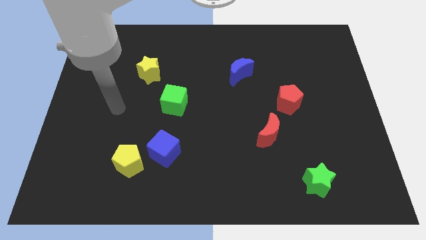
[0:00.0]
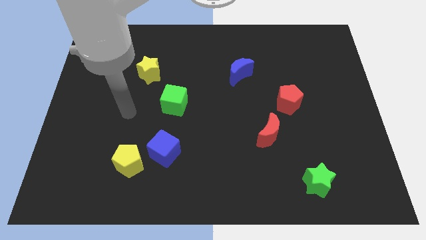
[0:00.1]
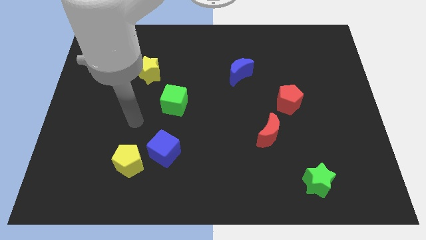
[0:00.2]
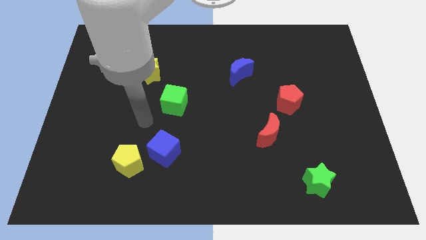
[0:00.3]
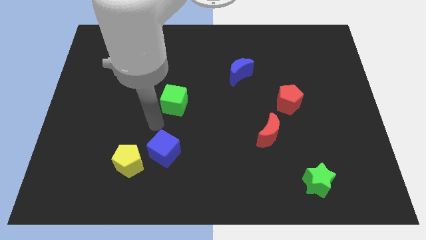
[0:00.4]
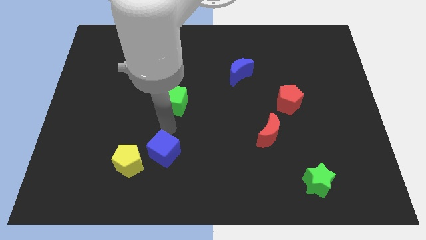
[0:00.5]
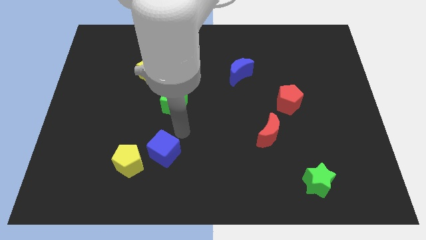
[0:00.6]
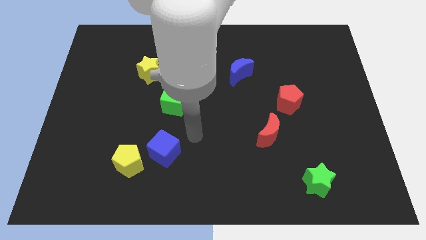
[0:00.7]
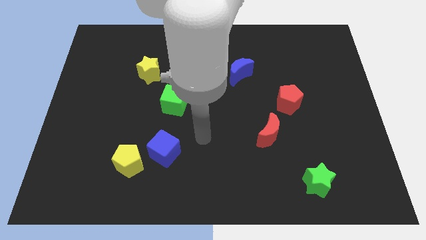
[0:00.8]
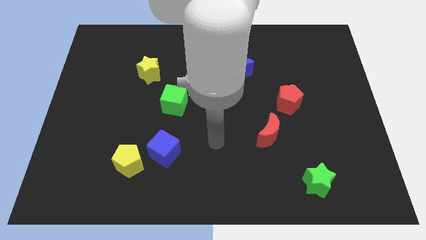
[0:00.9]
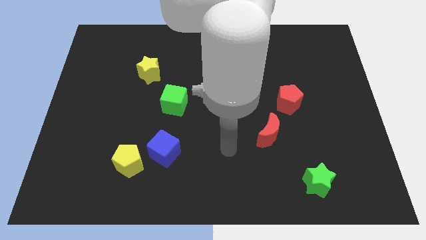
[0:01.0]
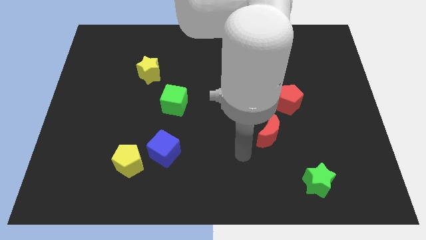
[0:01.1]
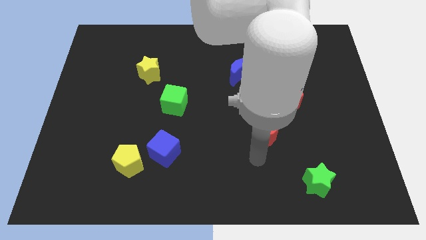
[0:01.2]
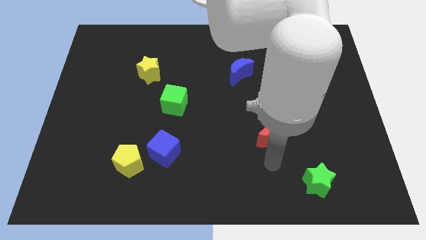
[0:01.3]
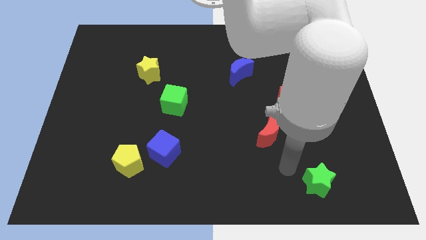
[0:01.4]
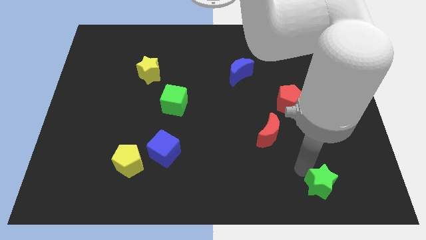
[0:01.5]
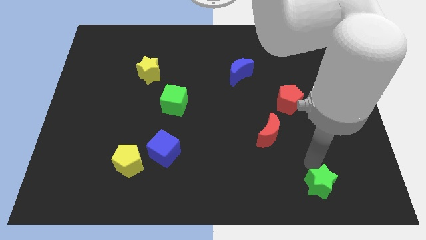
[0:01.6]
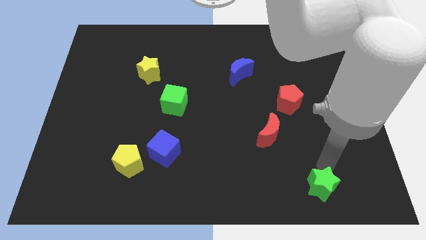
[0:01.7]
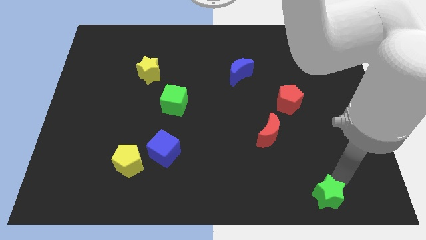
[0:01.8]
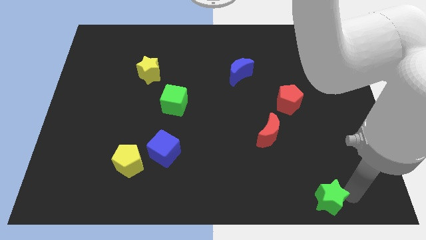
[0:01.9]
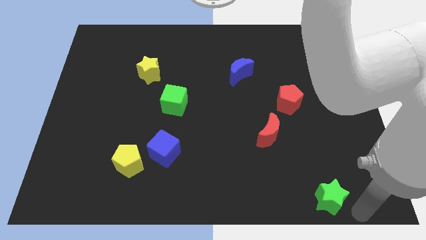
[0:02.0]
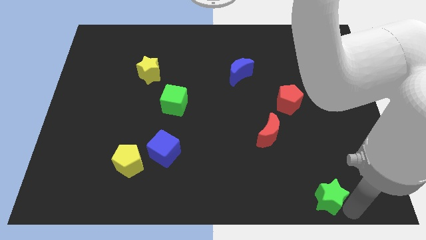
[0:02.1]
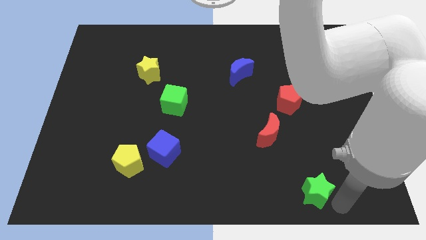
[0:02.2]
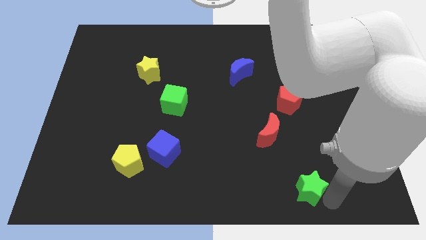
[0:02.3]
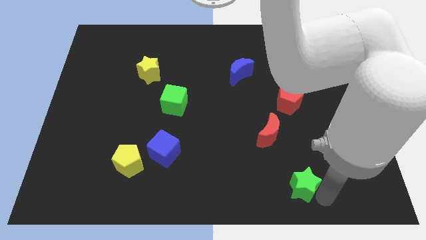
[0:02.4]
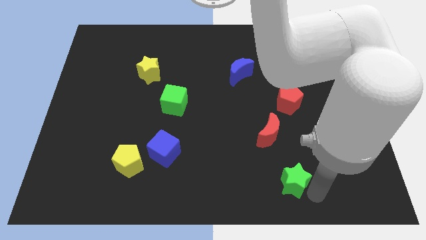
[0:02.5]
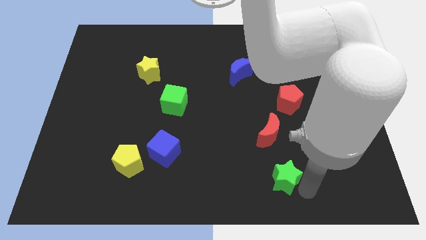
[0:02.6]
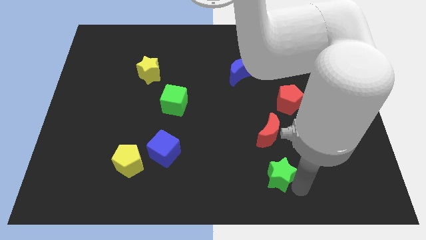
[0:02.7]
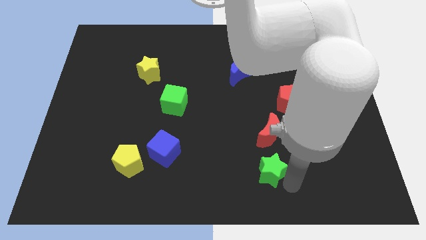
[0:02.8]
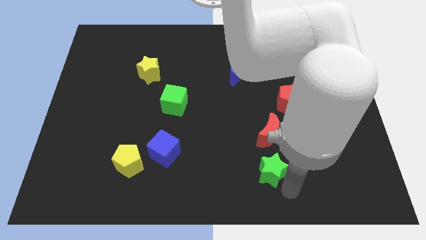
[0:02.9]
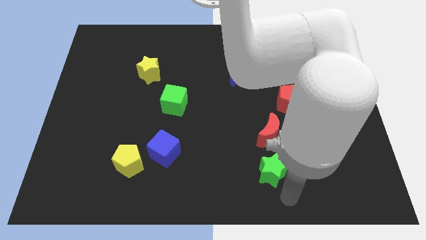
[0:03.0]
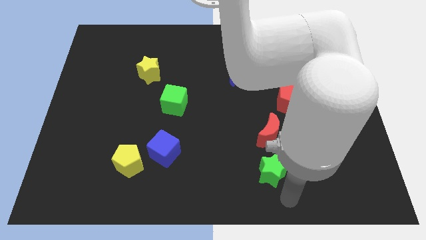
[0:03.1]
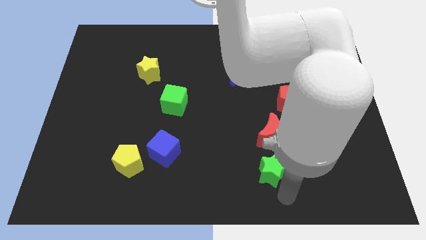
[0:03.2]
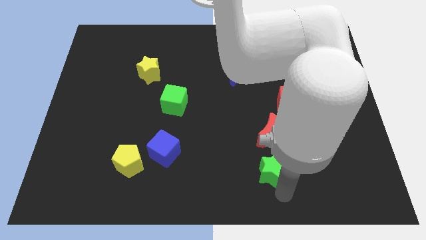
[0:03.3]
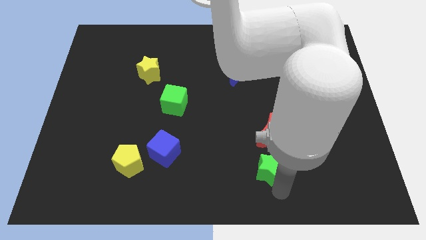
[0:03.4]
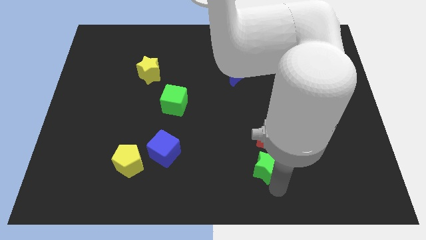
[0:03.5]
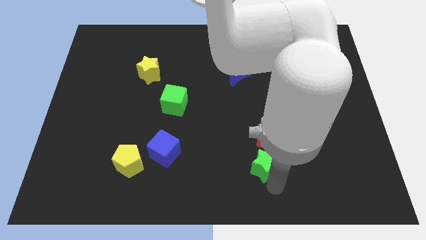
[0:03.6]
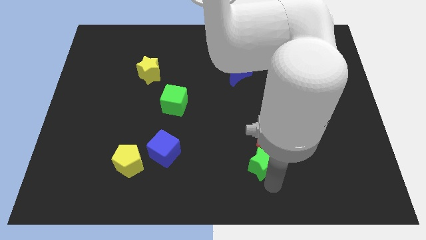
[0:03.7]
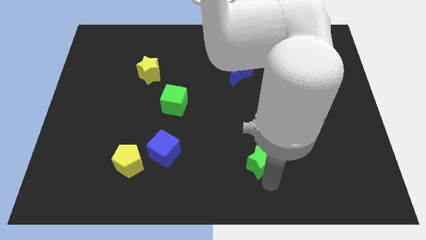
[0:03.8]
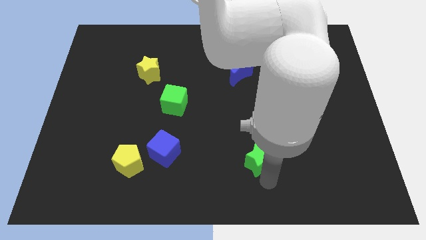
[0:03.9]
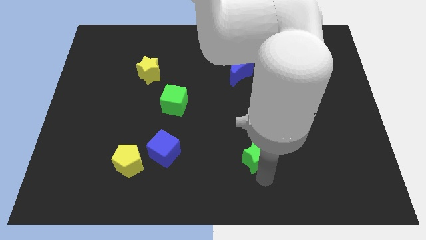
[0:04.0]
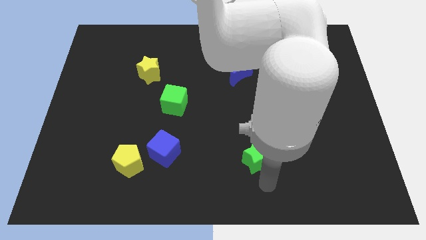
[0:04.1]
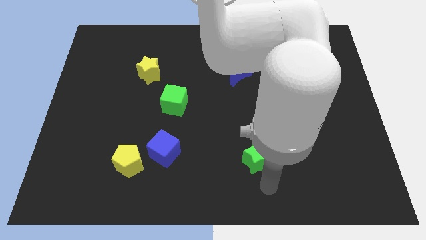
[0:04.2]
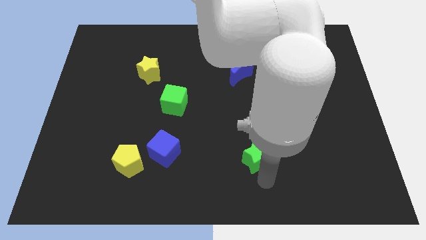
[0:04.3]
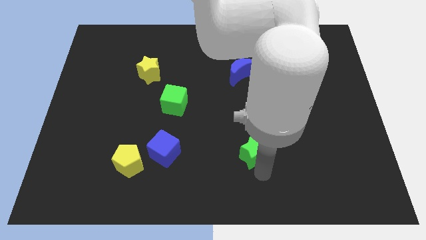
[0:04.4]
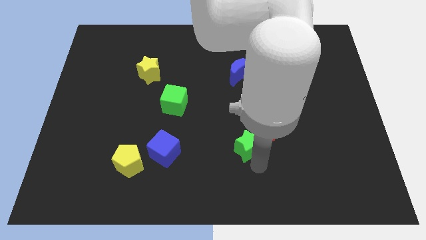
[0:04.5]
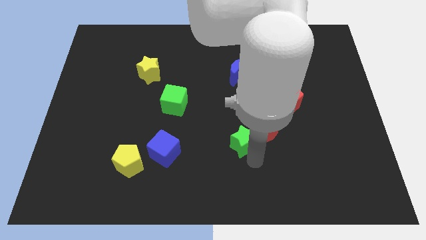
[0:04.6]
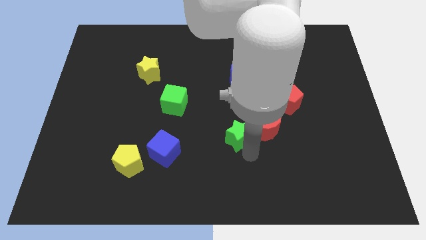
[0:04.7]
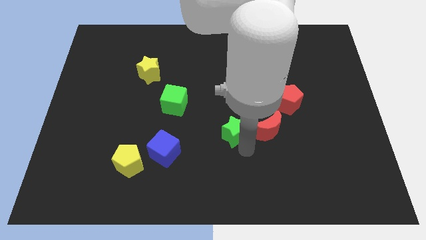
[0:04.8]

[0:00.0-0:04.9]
push the green star up and left diagonally

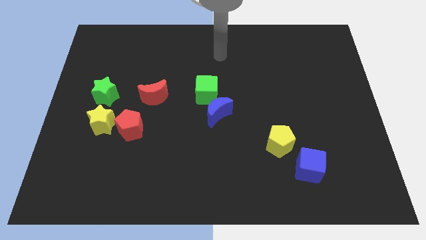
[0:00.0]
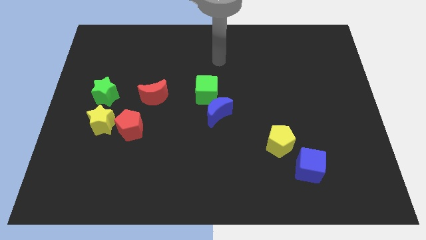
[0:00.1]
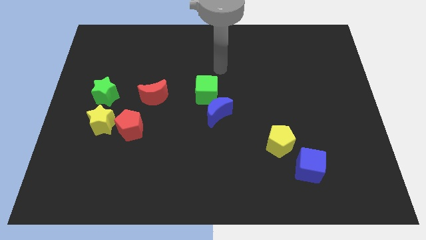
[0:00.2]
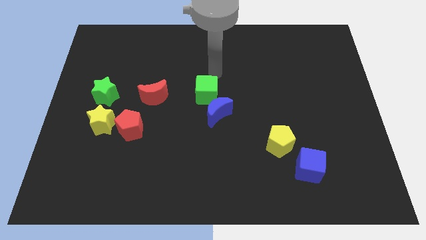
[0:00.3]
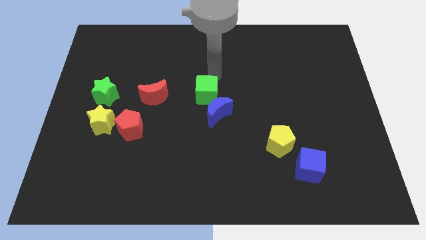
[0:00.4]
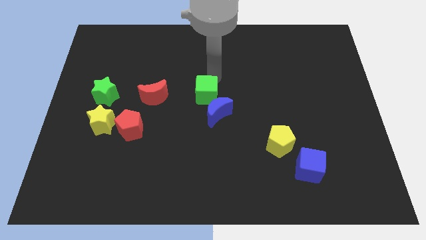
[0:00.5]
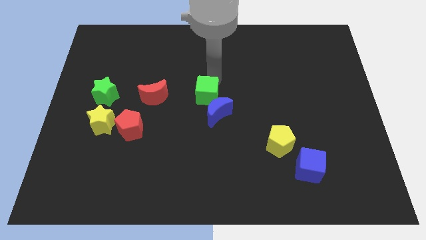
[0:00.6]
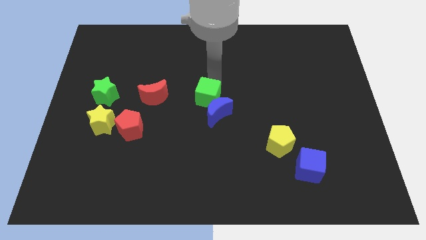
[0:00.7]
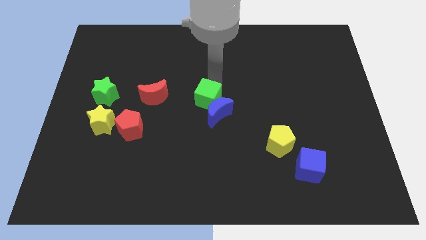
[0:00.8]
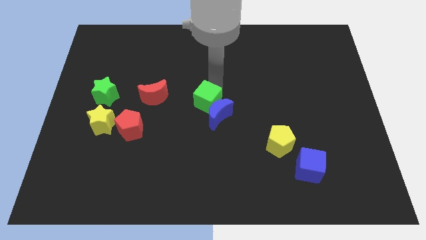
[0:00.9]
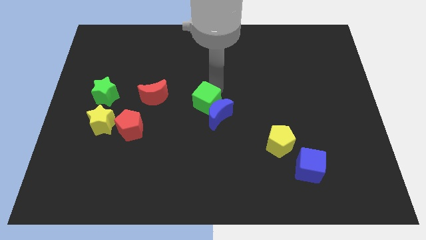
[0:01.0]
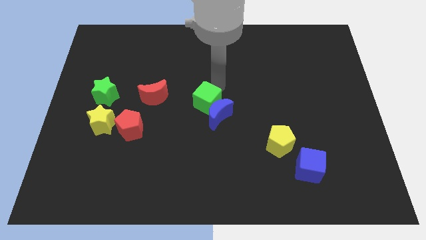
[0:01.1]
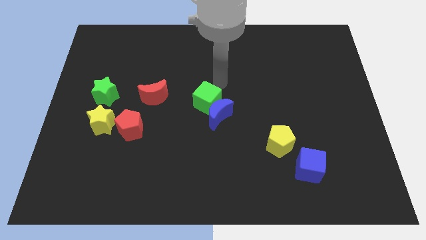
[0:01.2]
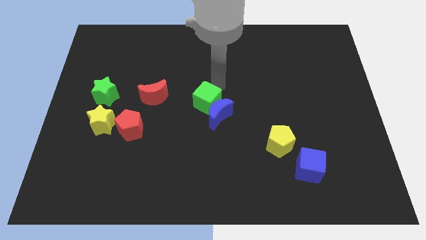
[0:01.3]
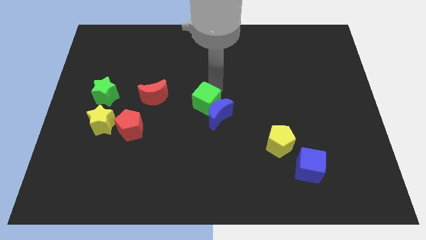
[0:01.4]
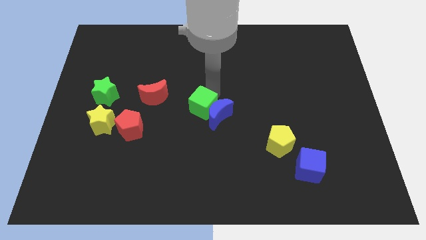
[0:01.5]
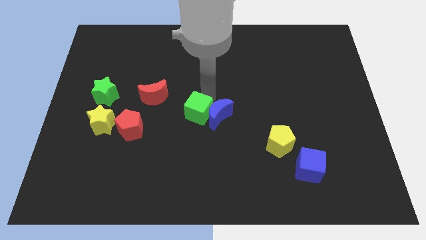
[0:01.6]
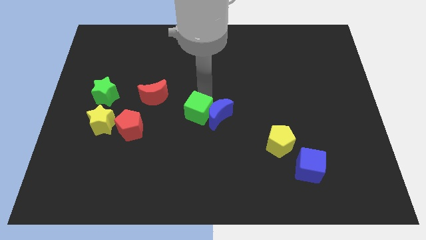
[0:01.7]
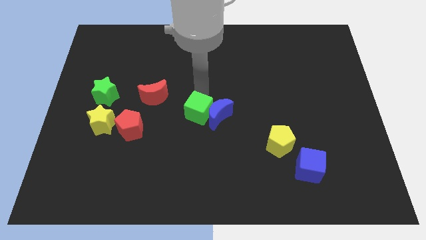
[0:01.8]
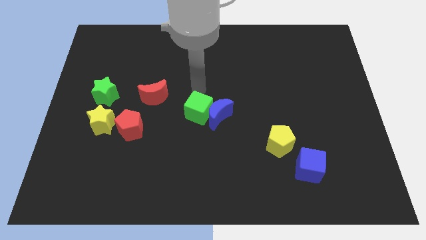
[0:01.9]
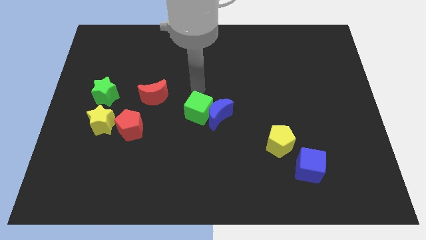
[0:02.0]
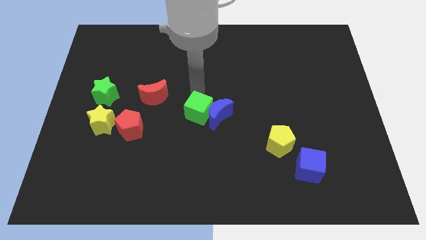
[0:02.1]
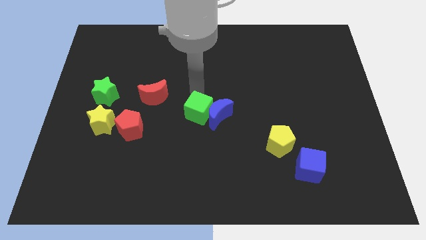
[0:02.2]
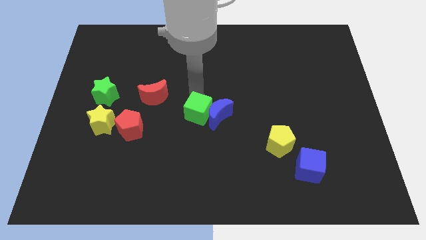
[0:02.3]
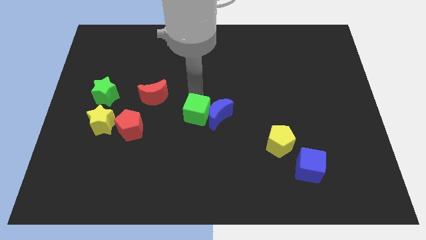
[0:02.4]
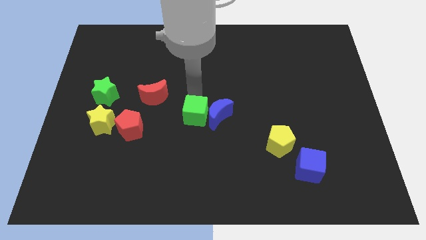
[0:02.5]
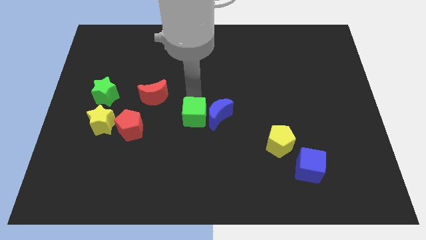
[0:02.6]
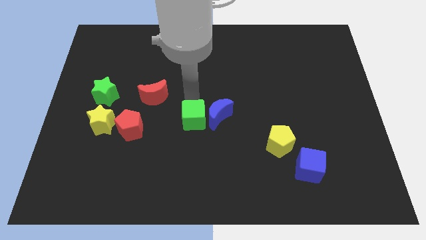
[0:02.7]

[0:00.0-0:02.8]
move the green cube a bit downwards
